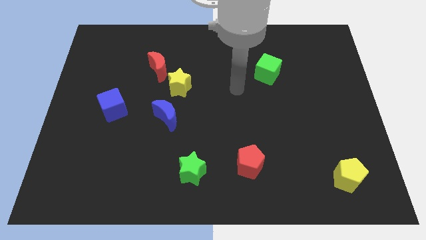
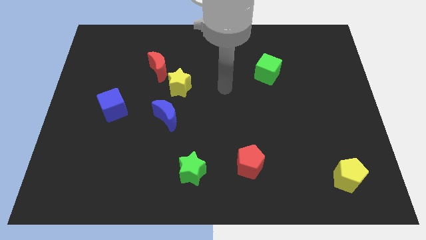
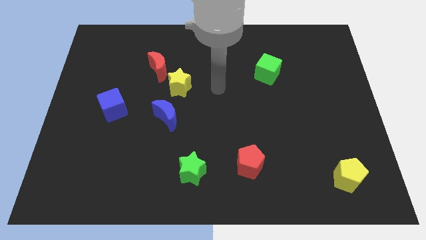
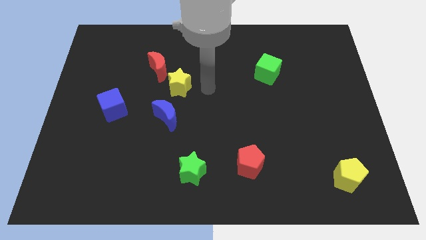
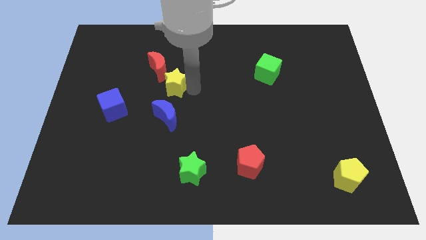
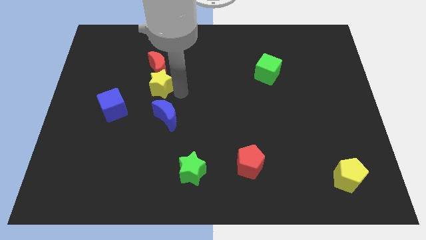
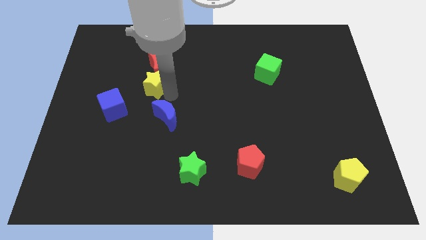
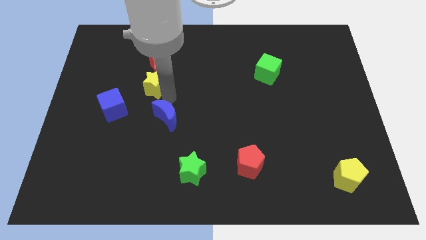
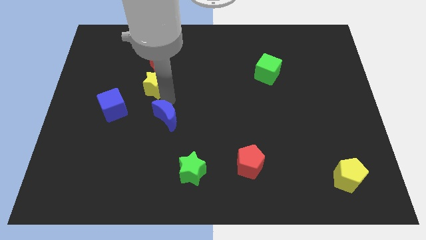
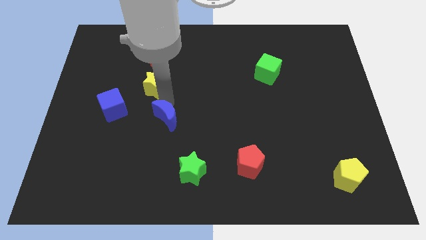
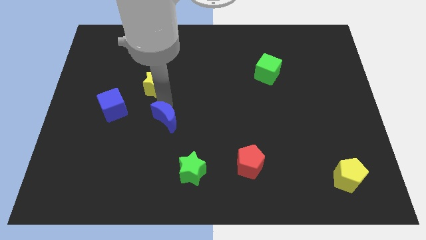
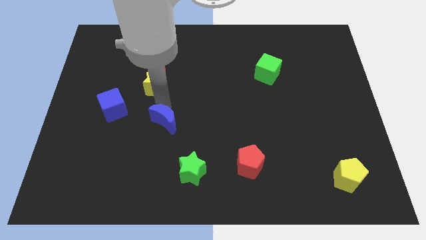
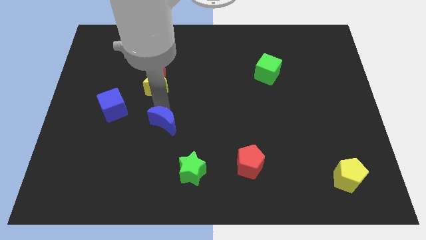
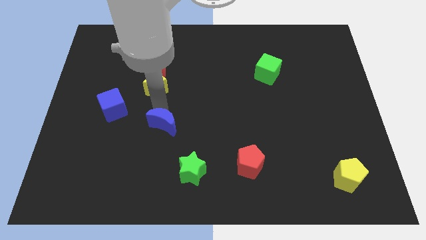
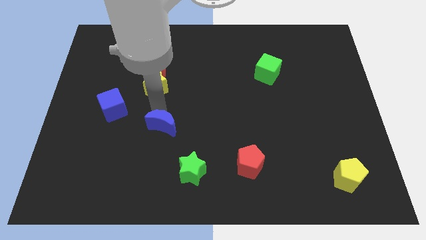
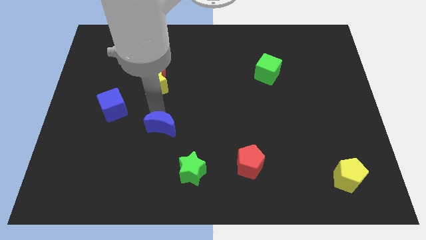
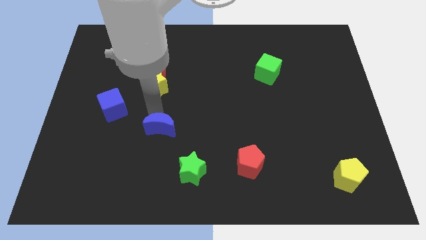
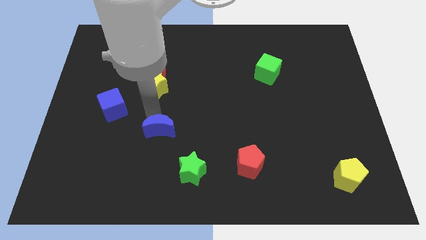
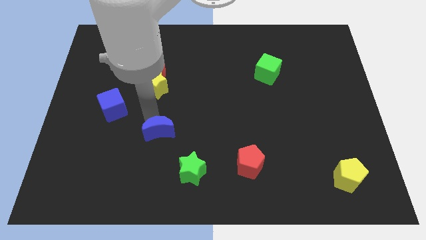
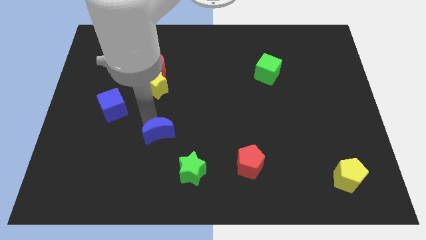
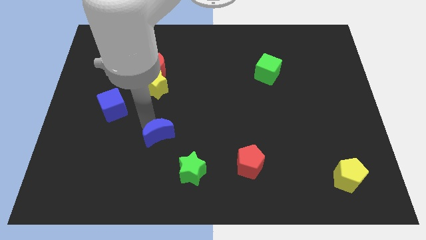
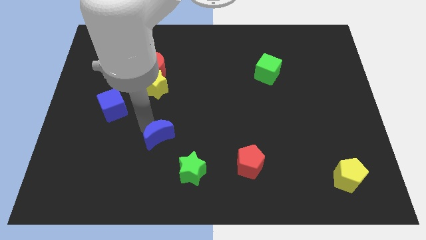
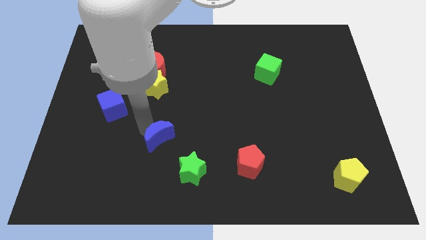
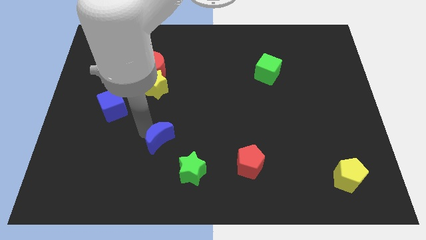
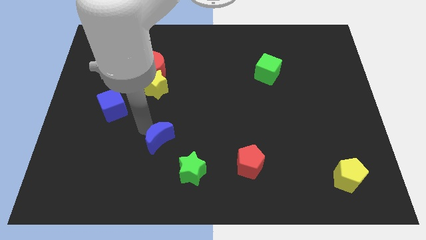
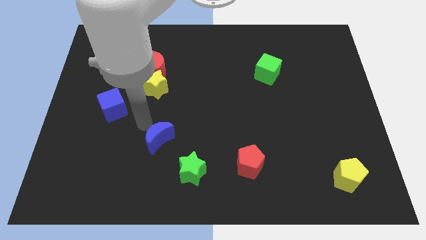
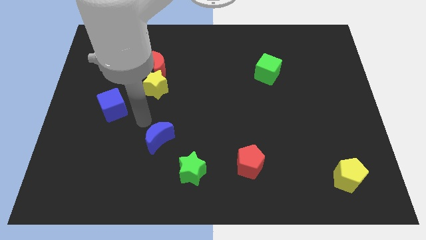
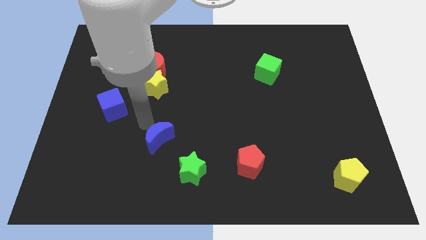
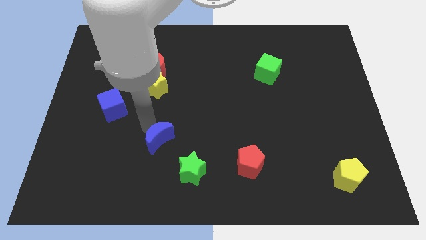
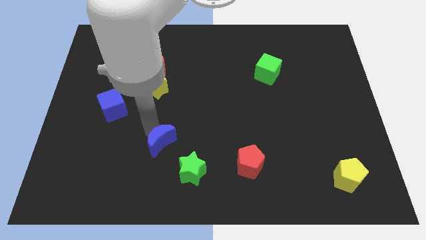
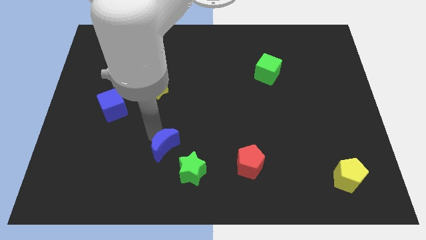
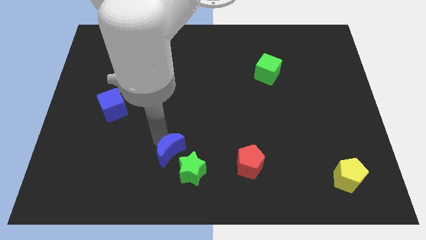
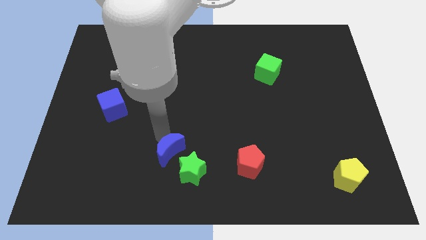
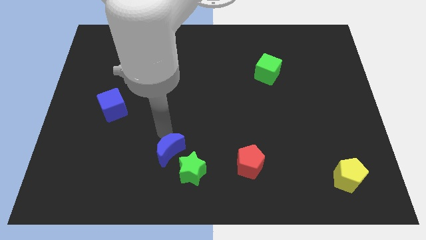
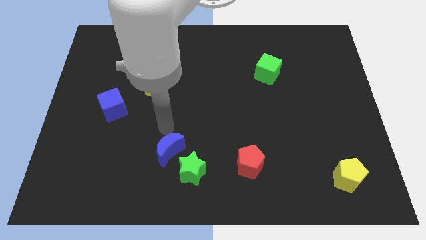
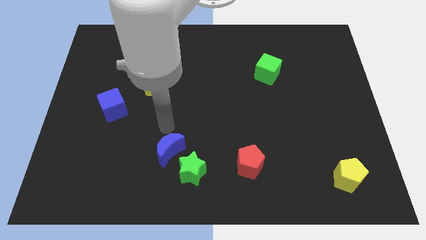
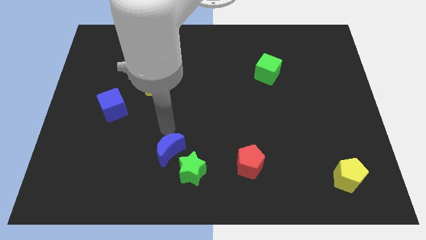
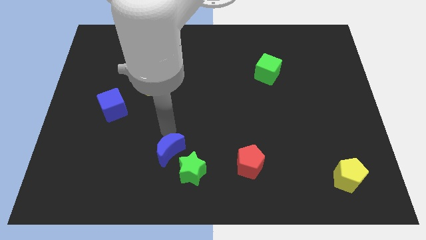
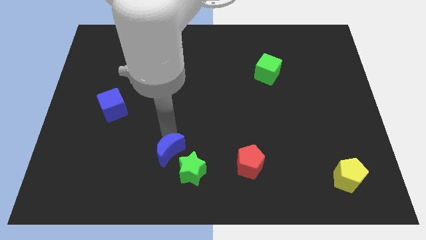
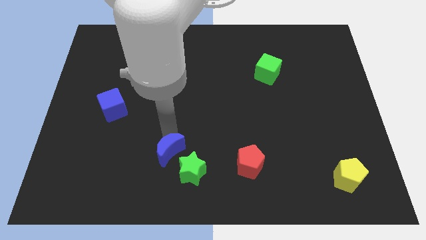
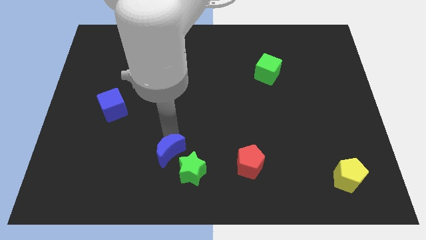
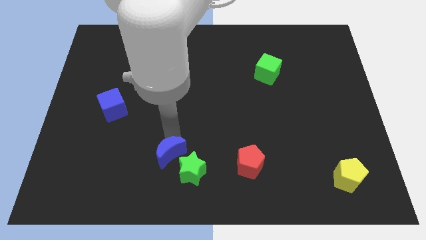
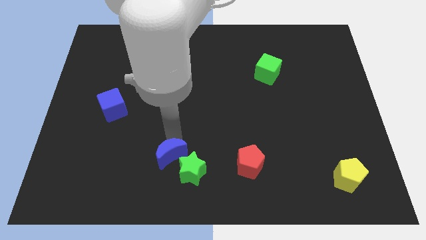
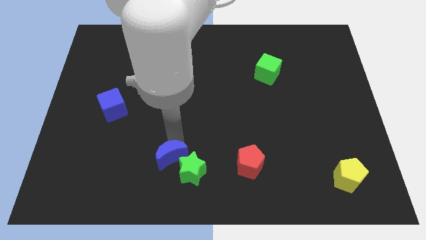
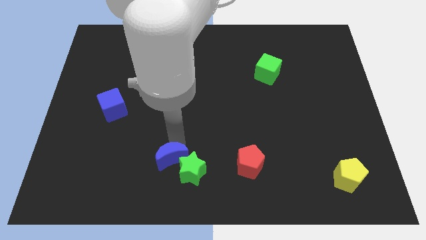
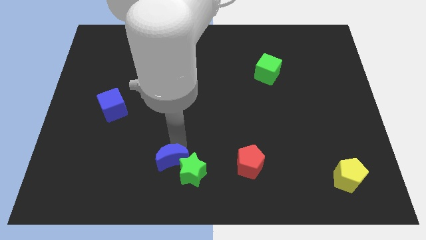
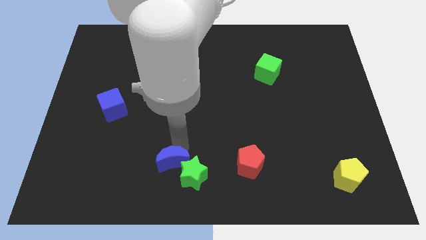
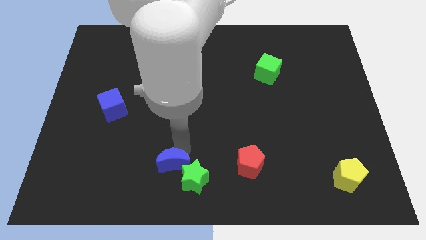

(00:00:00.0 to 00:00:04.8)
slide the blue moon to the bottom side

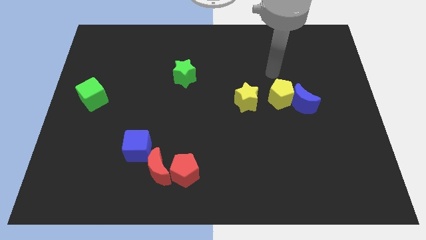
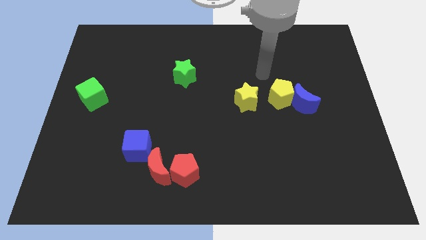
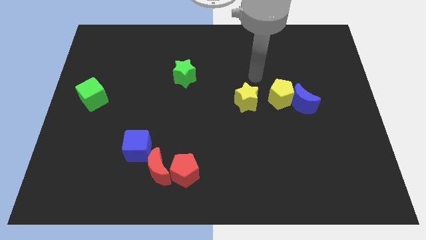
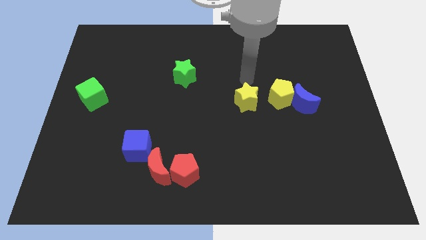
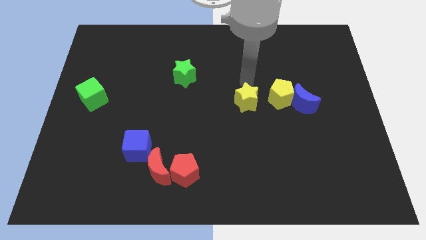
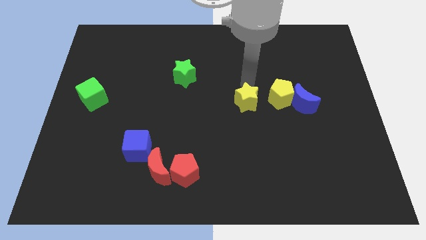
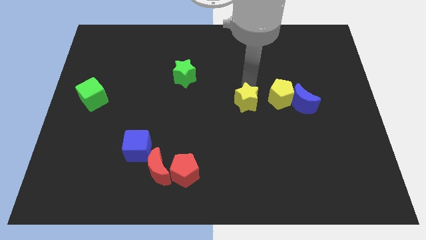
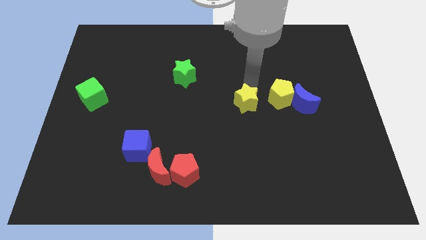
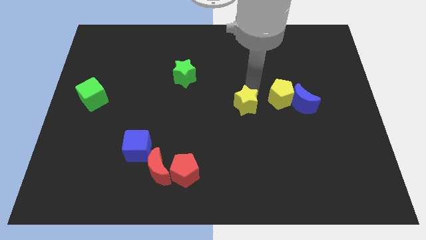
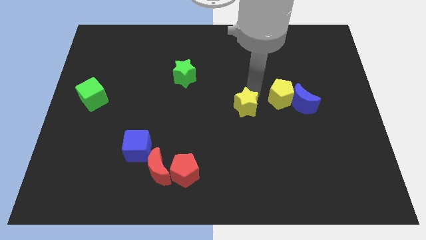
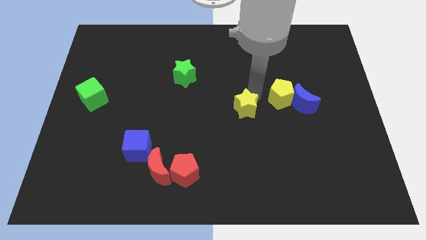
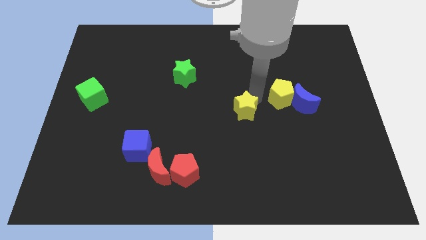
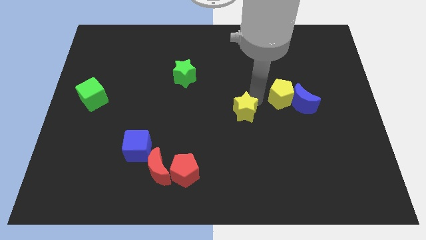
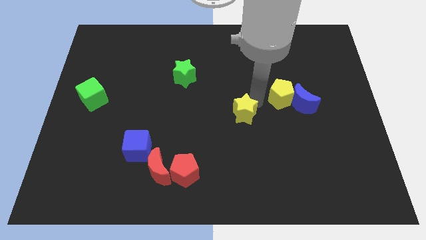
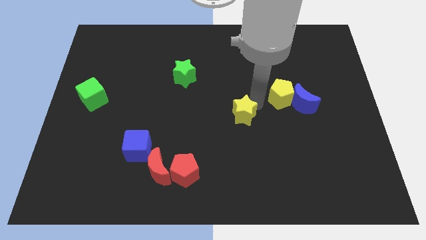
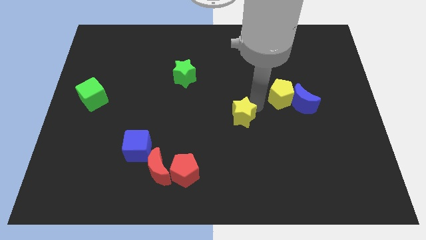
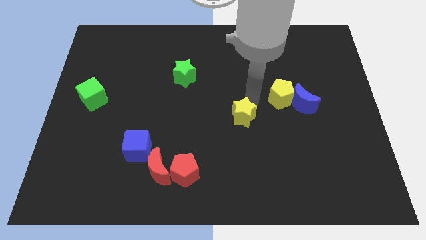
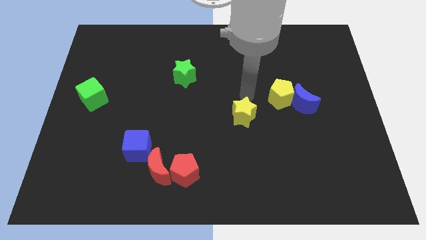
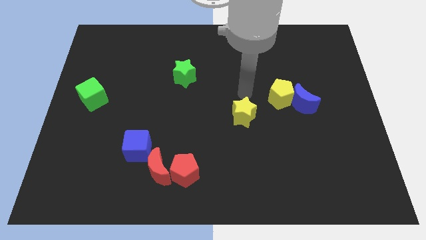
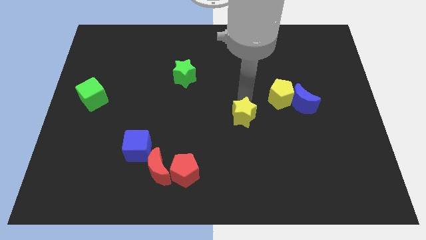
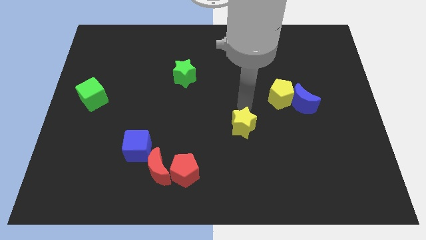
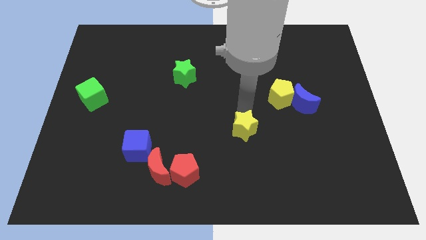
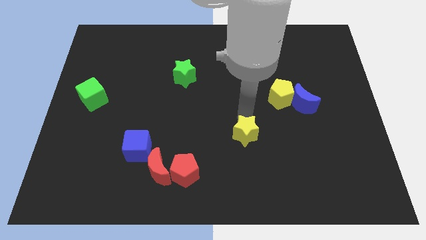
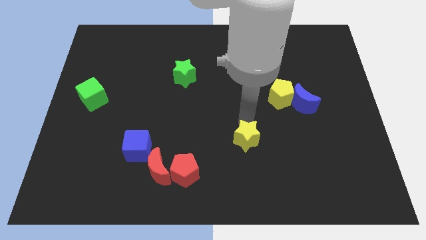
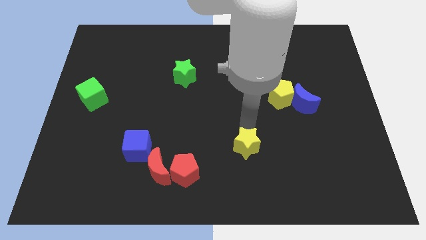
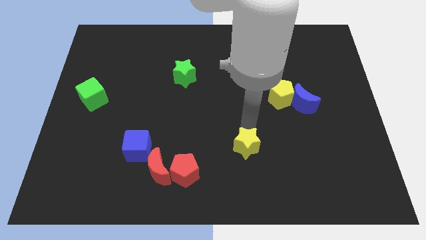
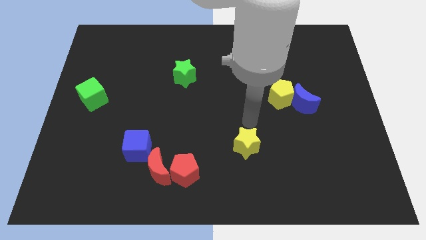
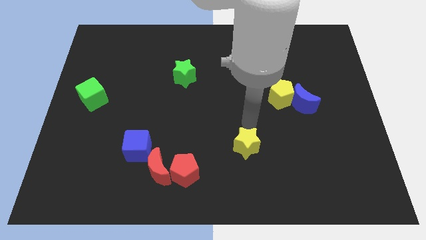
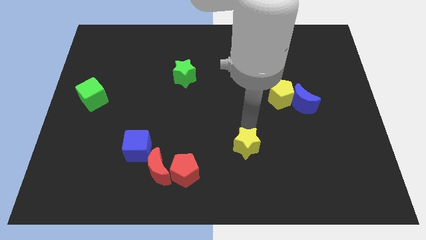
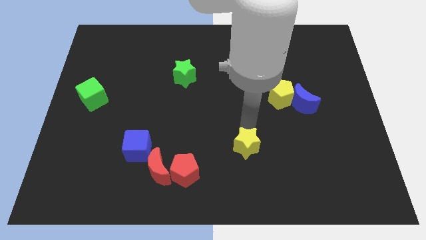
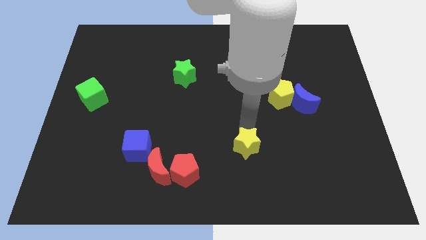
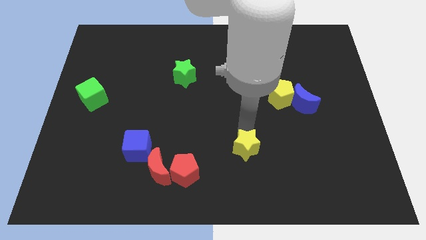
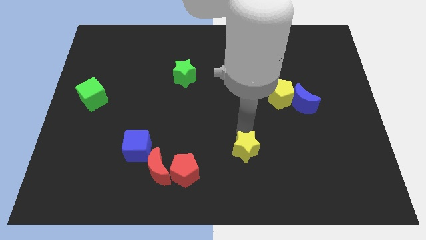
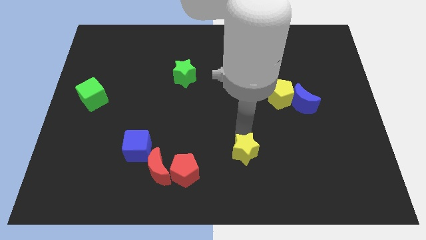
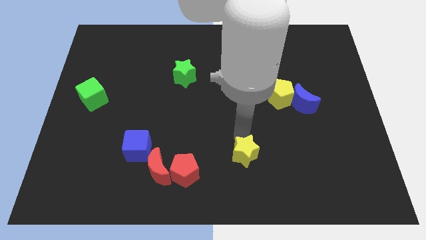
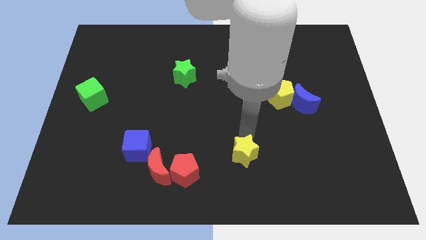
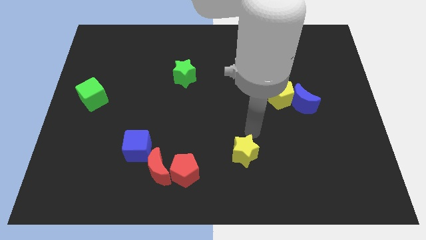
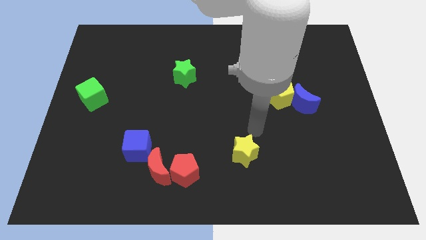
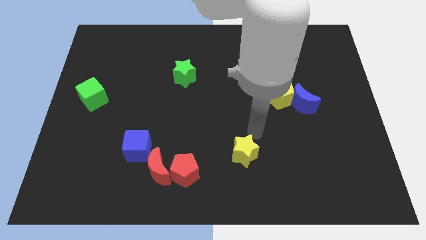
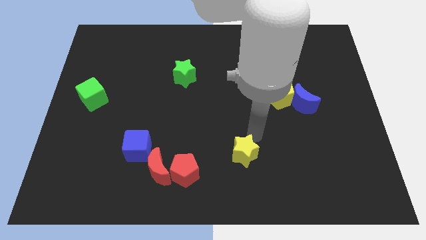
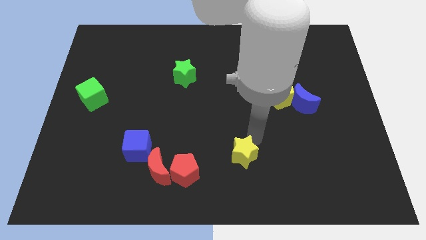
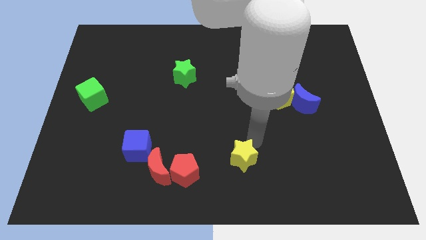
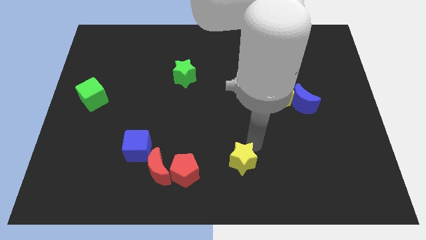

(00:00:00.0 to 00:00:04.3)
put the yellow star to the bottom
